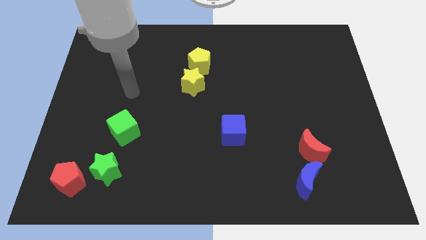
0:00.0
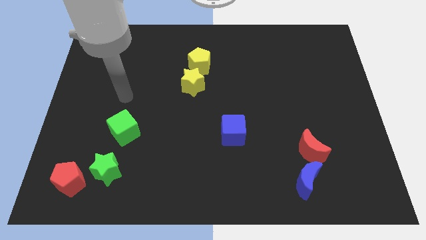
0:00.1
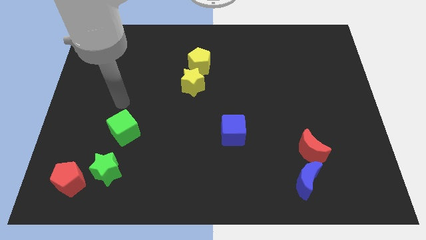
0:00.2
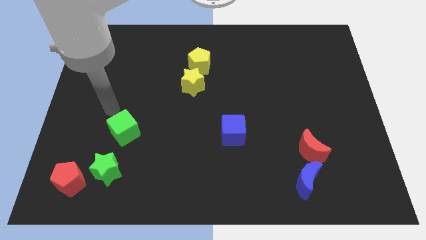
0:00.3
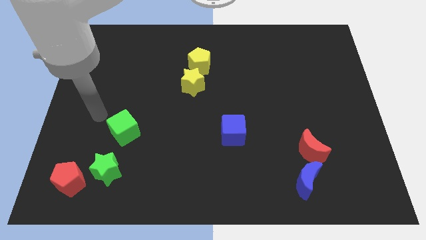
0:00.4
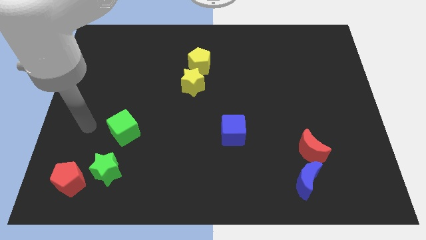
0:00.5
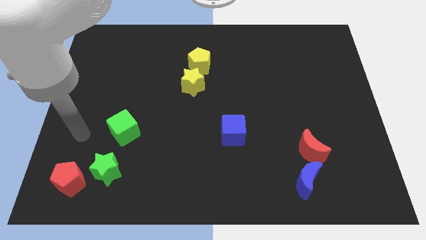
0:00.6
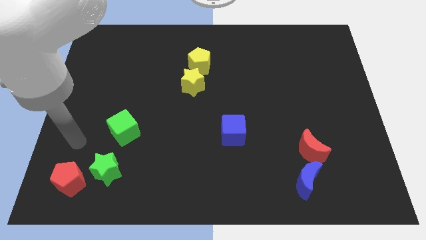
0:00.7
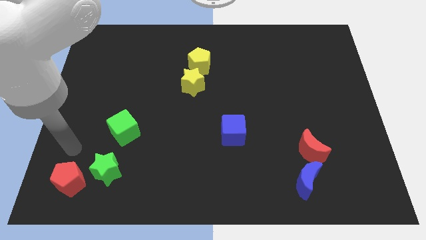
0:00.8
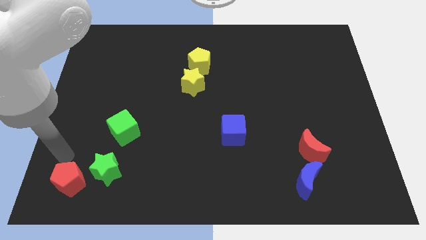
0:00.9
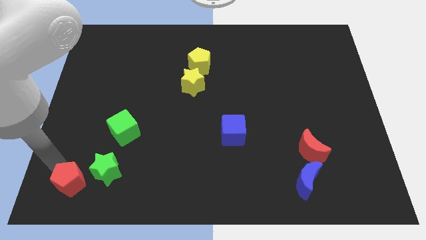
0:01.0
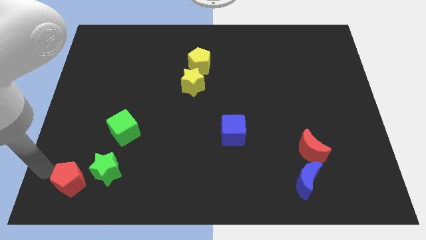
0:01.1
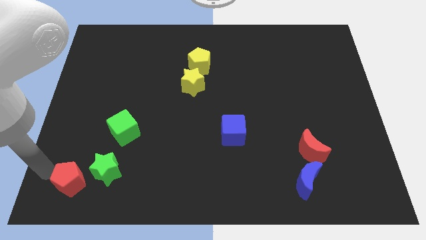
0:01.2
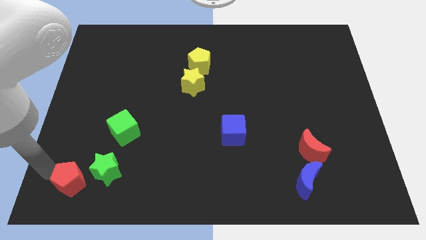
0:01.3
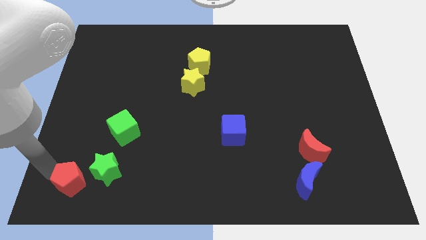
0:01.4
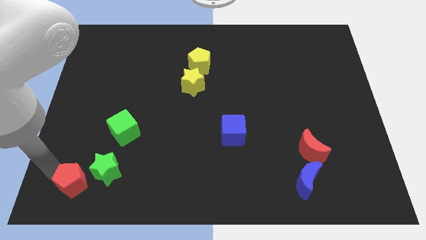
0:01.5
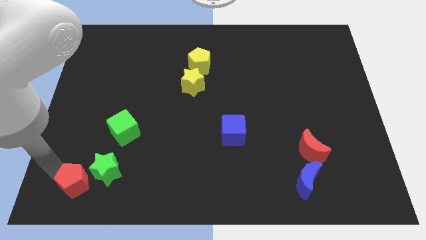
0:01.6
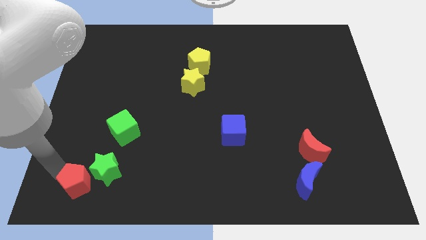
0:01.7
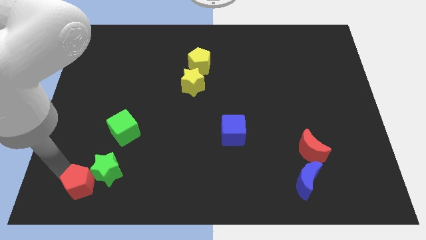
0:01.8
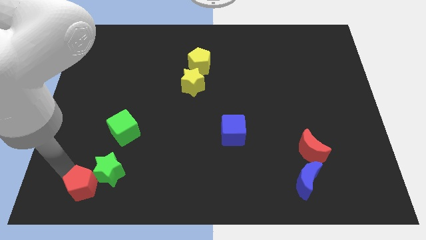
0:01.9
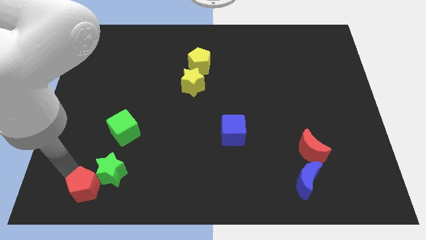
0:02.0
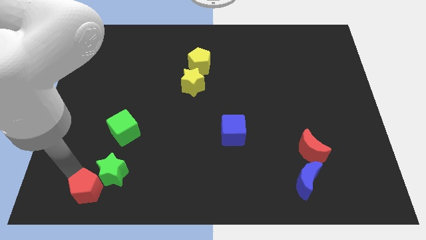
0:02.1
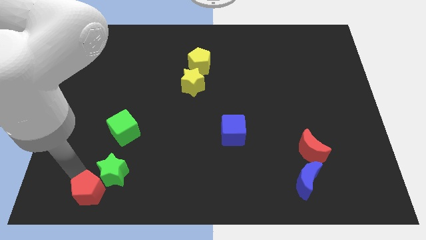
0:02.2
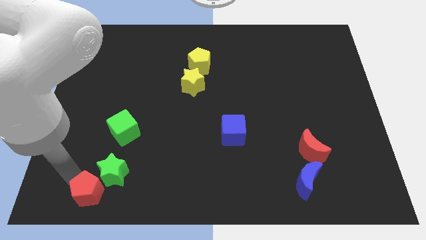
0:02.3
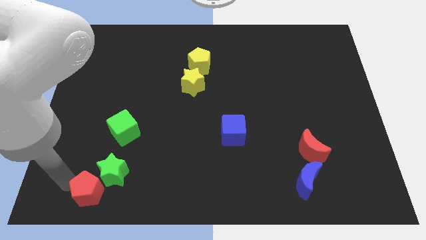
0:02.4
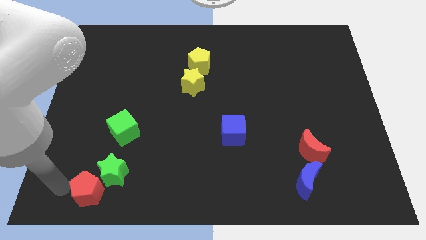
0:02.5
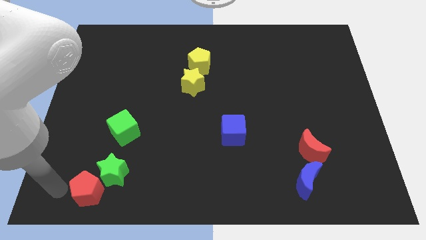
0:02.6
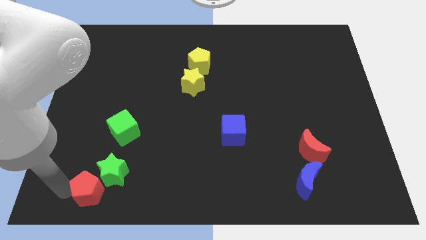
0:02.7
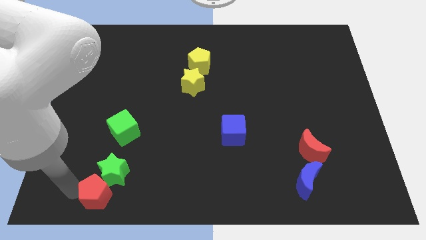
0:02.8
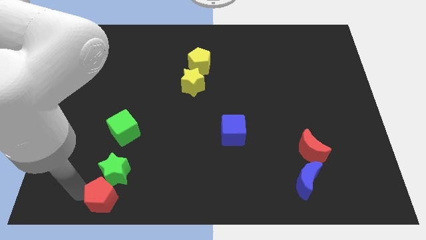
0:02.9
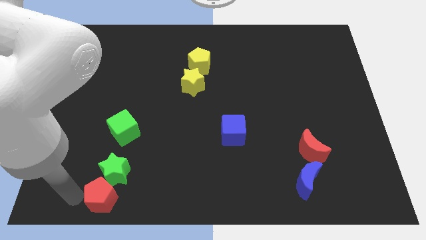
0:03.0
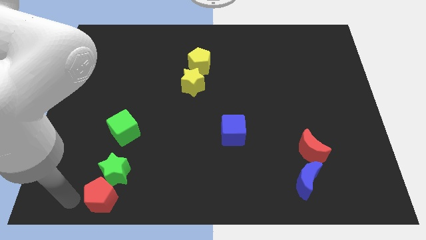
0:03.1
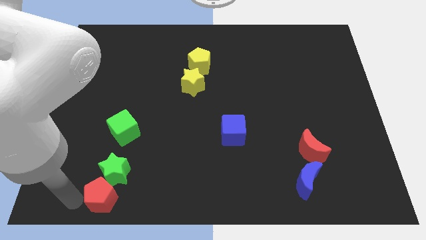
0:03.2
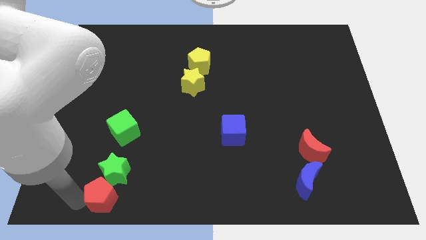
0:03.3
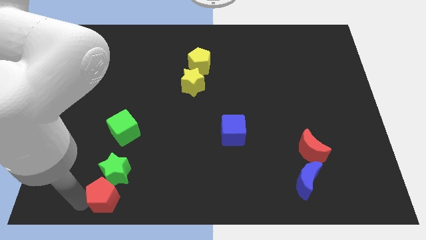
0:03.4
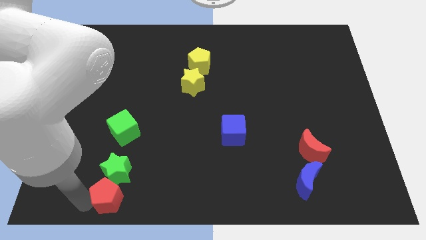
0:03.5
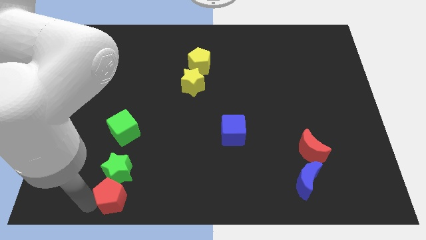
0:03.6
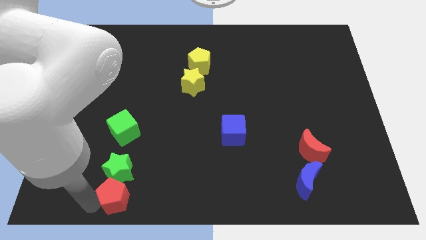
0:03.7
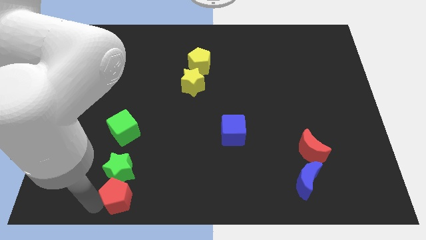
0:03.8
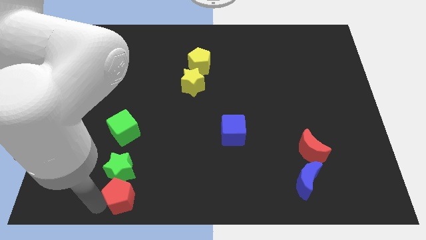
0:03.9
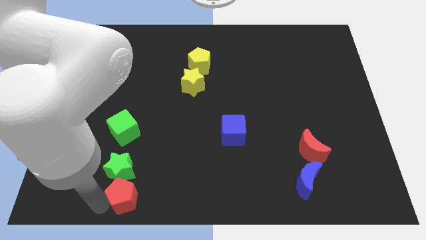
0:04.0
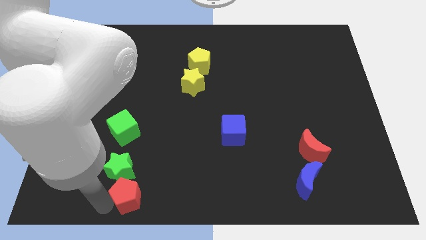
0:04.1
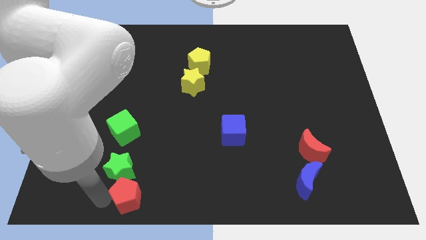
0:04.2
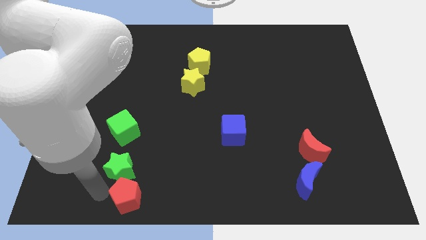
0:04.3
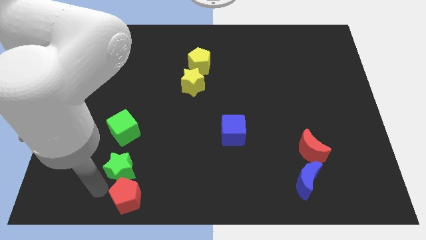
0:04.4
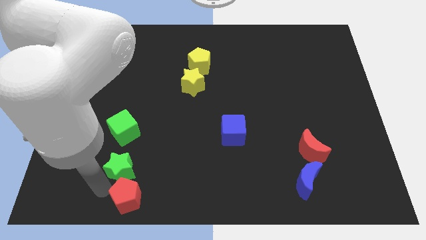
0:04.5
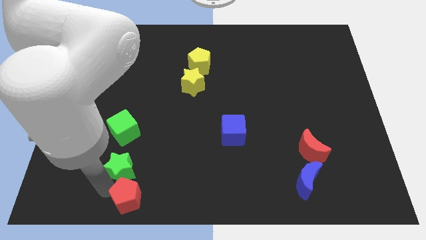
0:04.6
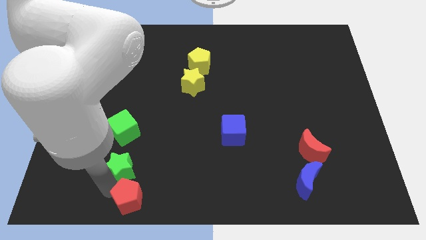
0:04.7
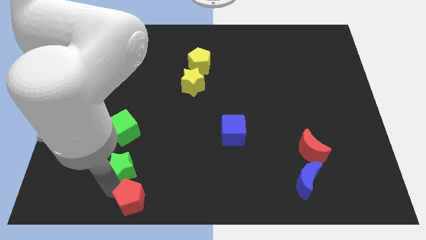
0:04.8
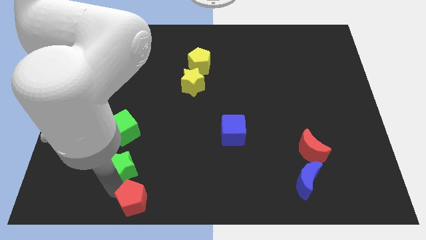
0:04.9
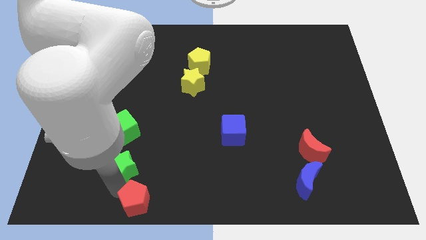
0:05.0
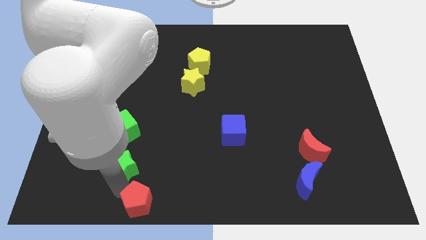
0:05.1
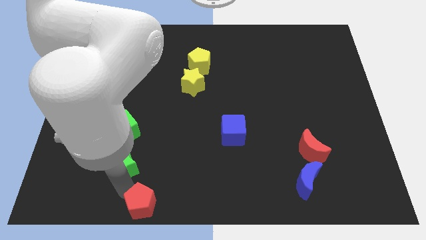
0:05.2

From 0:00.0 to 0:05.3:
put the red pentagon to the bottom side

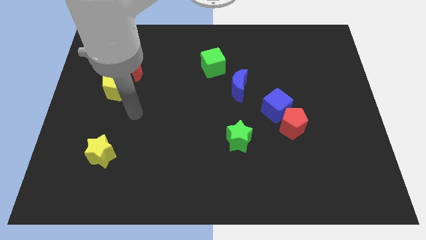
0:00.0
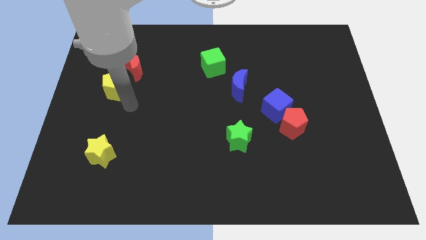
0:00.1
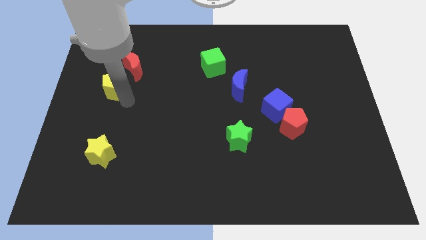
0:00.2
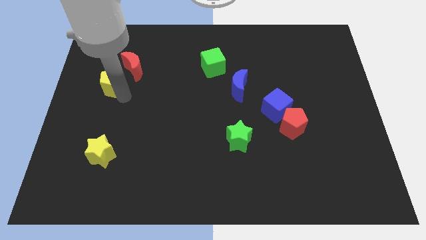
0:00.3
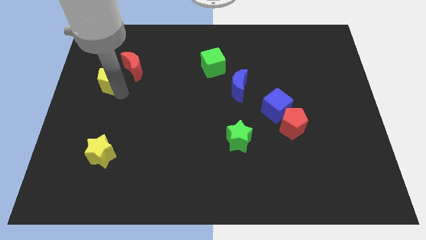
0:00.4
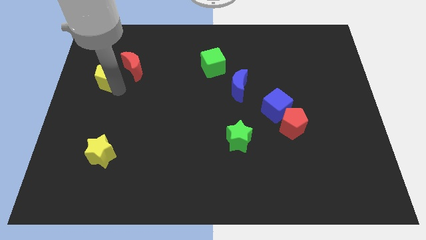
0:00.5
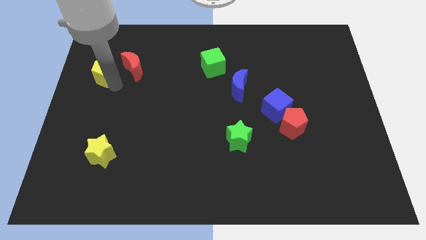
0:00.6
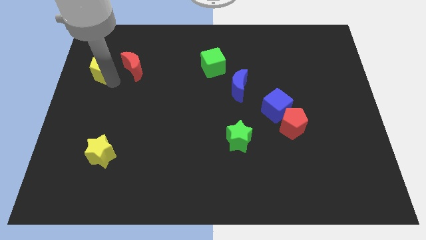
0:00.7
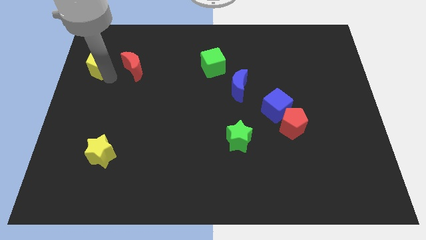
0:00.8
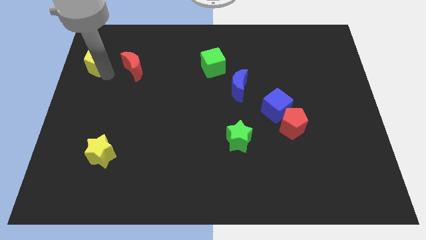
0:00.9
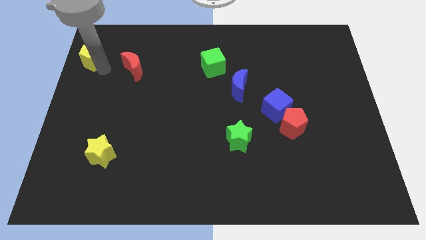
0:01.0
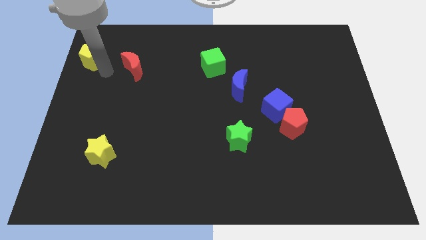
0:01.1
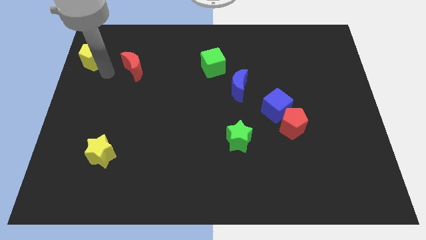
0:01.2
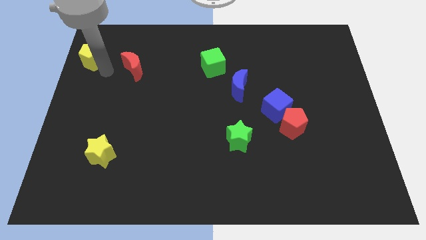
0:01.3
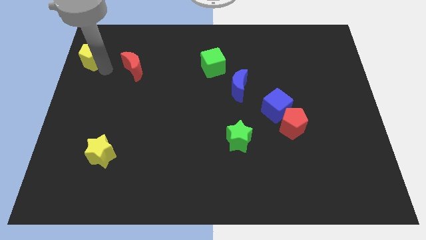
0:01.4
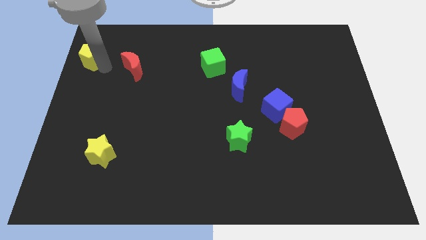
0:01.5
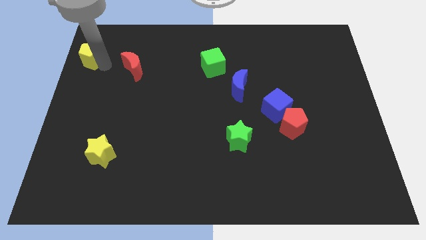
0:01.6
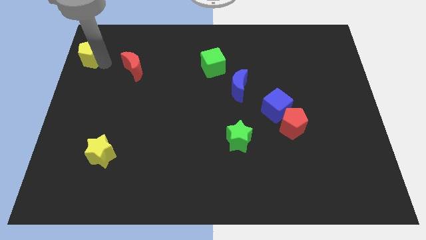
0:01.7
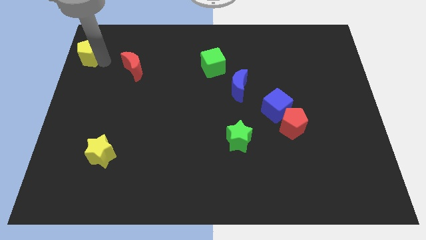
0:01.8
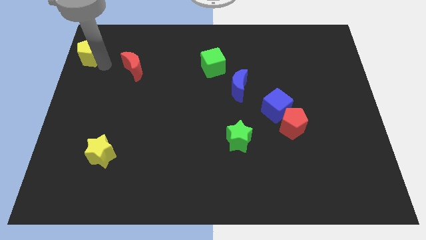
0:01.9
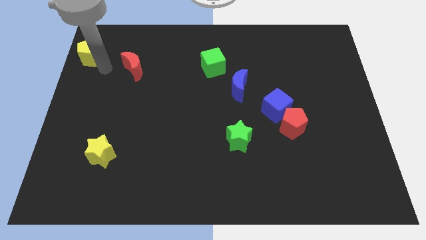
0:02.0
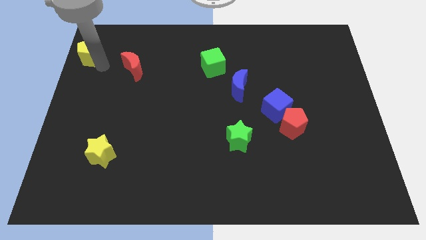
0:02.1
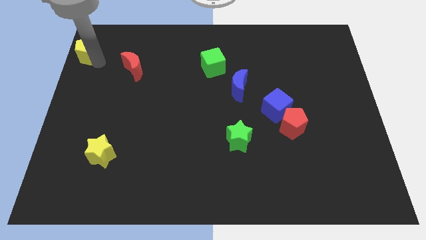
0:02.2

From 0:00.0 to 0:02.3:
slide the yellow pentagon to the top left corner
